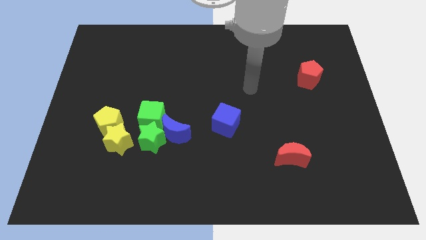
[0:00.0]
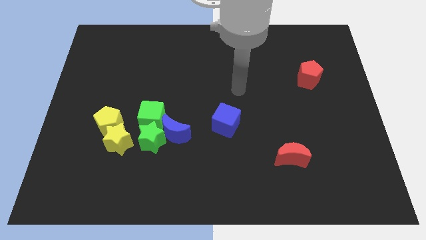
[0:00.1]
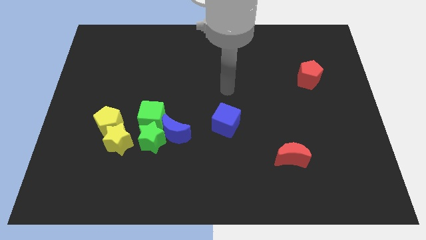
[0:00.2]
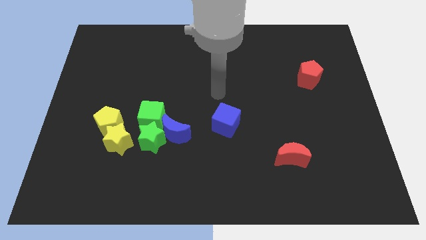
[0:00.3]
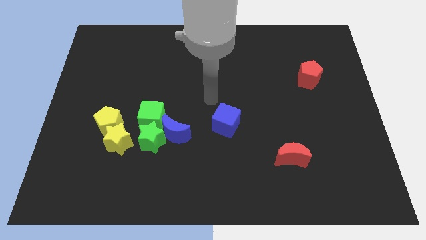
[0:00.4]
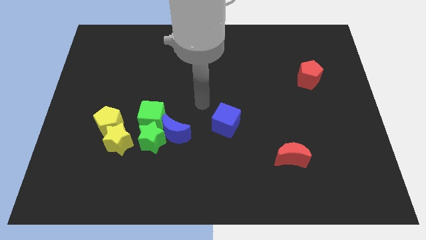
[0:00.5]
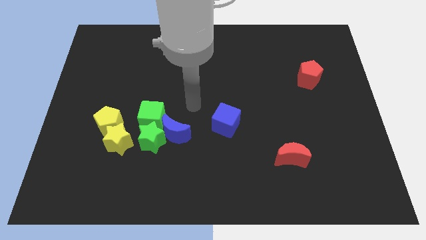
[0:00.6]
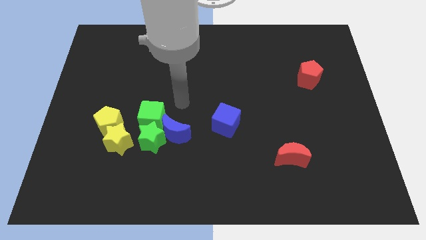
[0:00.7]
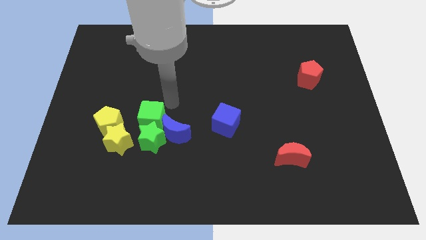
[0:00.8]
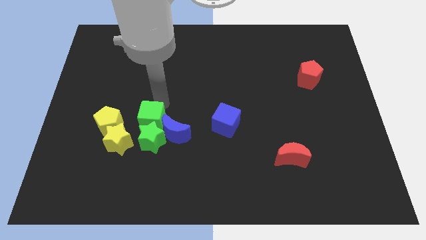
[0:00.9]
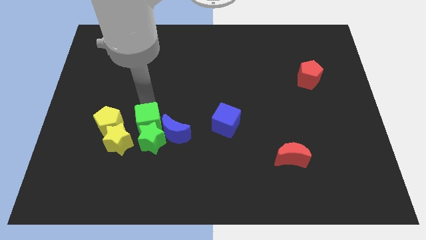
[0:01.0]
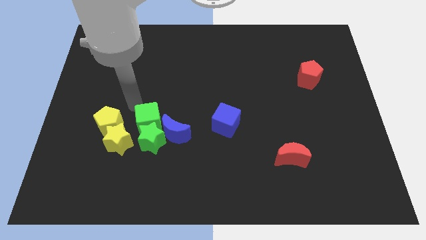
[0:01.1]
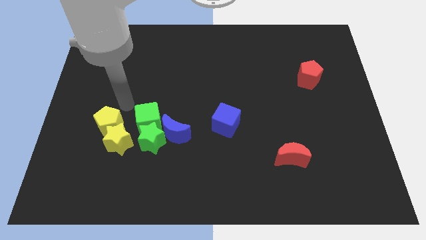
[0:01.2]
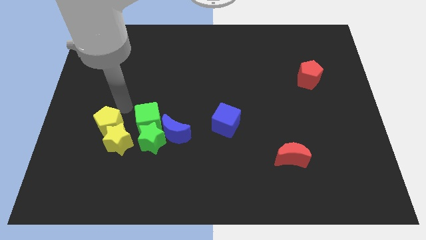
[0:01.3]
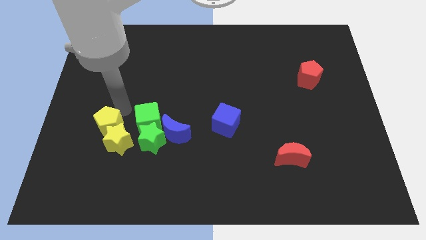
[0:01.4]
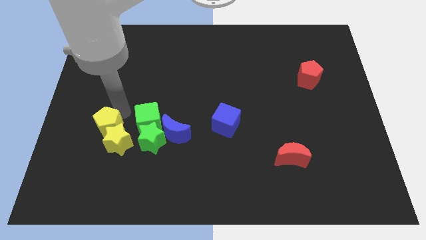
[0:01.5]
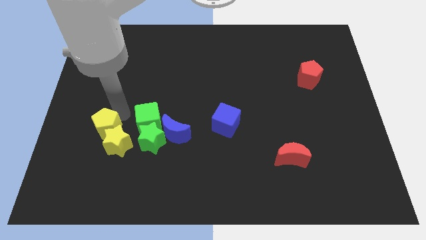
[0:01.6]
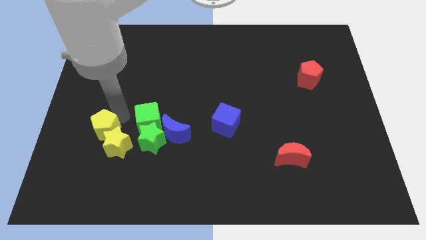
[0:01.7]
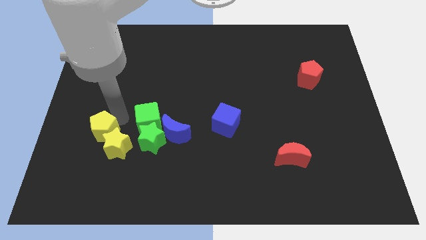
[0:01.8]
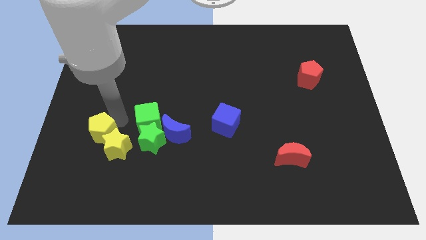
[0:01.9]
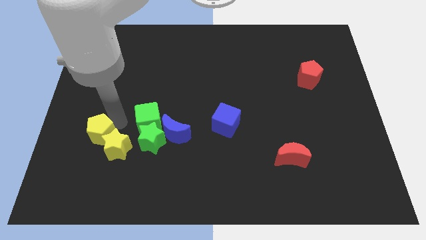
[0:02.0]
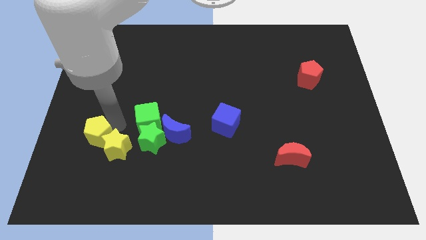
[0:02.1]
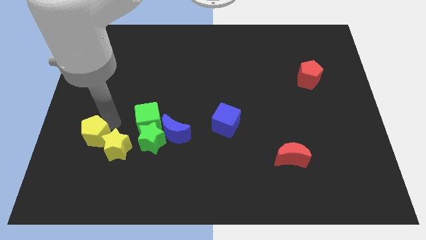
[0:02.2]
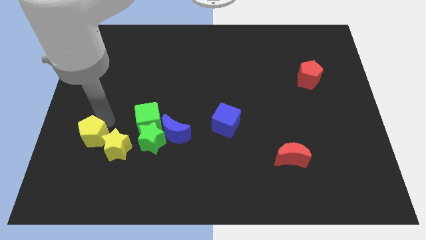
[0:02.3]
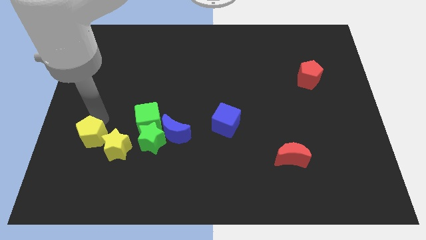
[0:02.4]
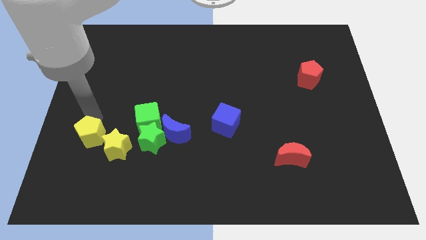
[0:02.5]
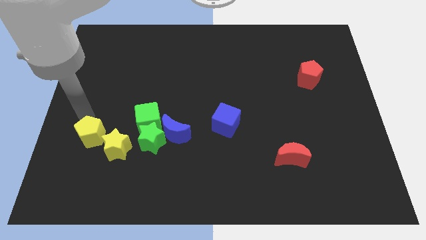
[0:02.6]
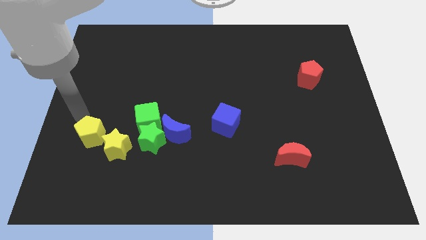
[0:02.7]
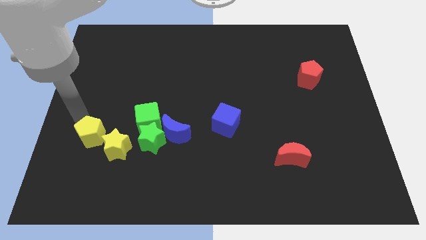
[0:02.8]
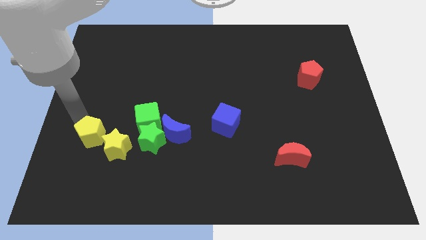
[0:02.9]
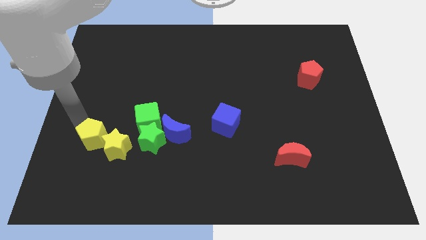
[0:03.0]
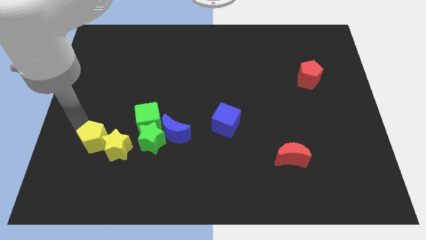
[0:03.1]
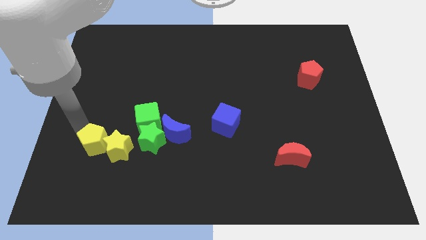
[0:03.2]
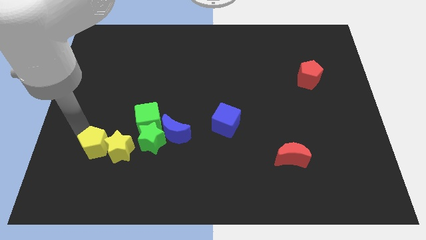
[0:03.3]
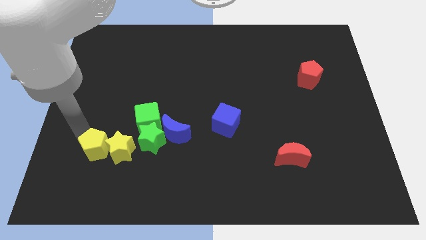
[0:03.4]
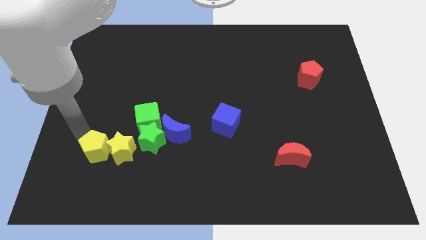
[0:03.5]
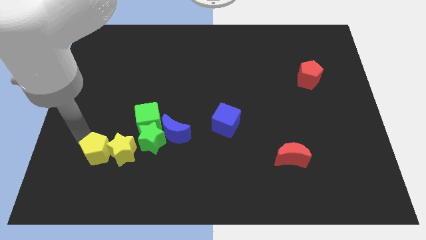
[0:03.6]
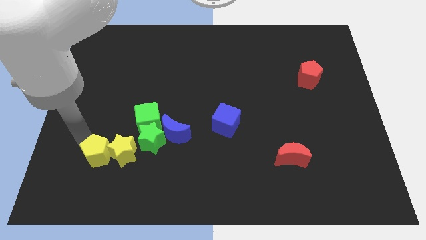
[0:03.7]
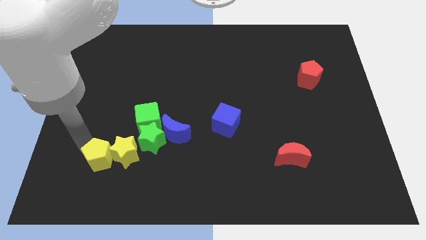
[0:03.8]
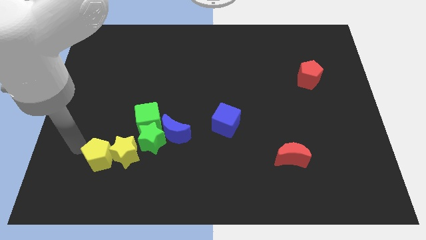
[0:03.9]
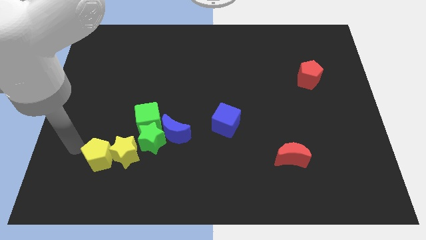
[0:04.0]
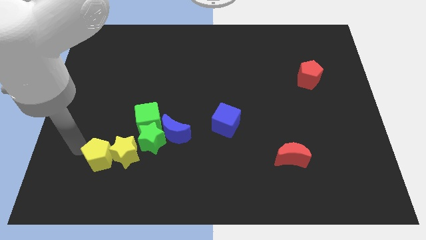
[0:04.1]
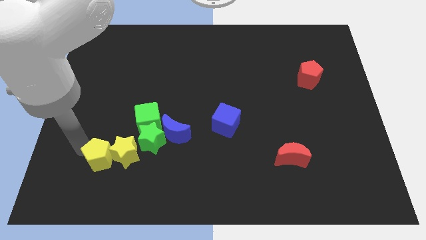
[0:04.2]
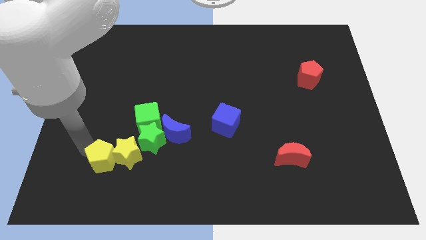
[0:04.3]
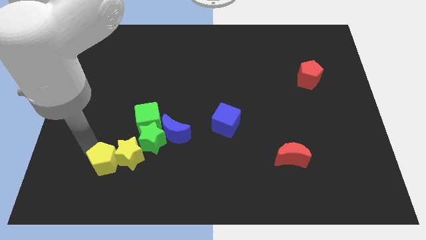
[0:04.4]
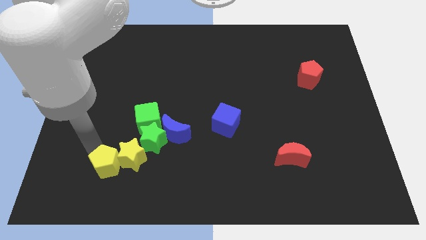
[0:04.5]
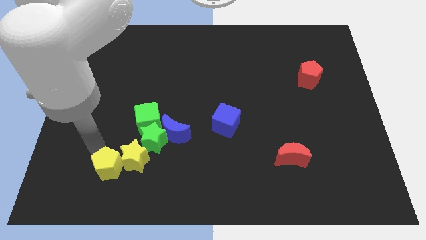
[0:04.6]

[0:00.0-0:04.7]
move the yellow pentagon a little bit down and right

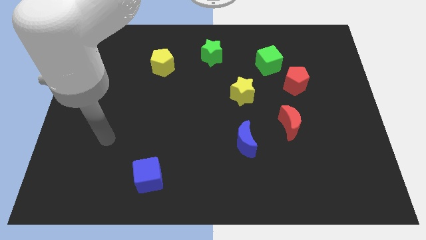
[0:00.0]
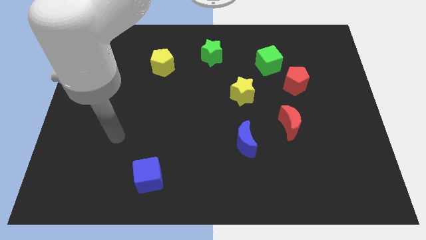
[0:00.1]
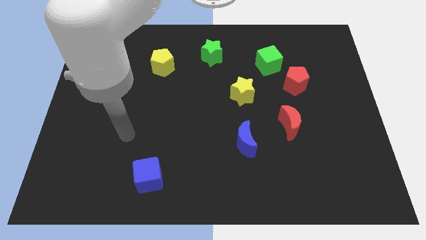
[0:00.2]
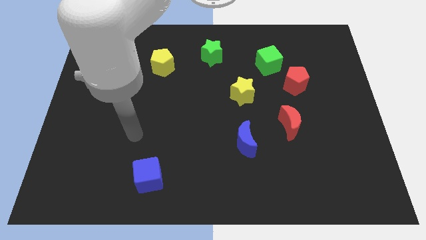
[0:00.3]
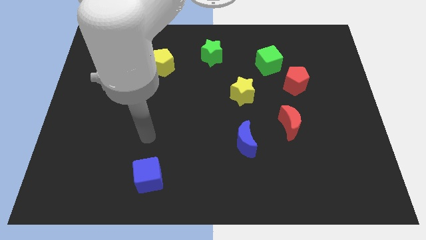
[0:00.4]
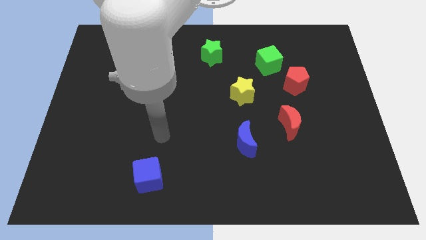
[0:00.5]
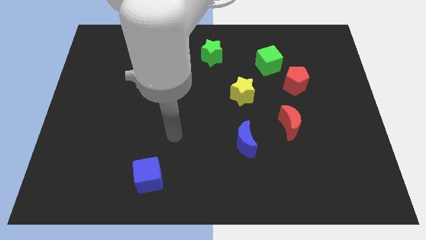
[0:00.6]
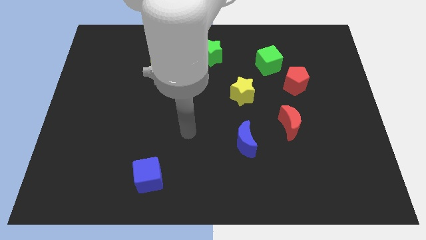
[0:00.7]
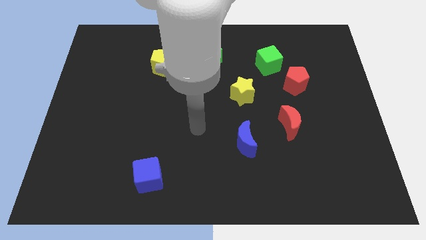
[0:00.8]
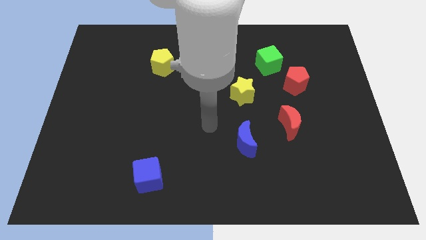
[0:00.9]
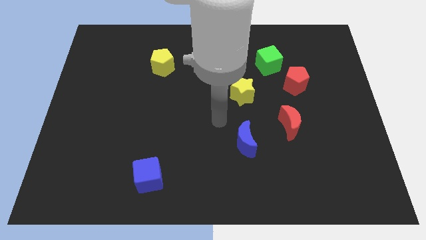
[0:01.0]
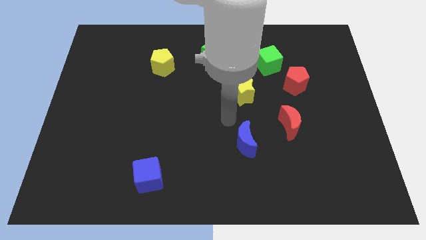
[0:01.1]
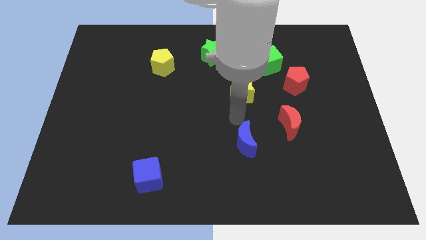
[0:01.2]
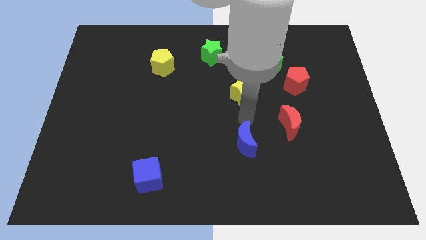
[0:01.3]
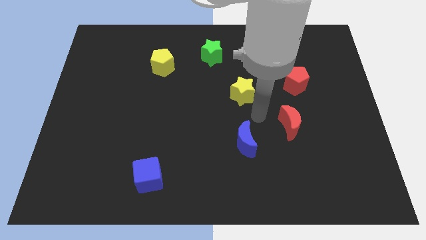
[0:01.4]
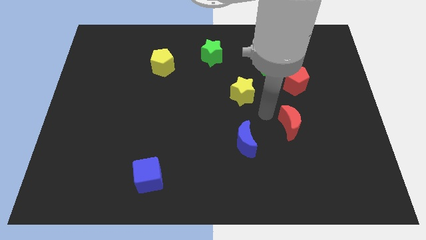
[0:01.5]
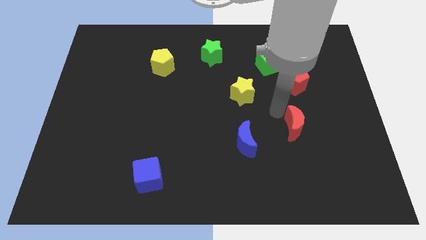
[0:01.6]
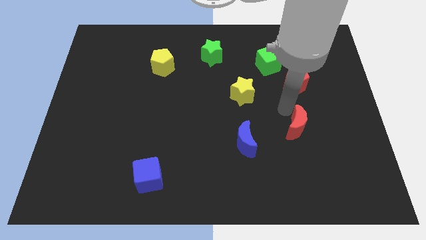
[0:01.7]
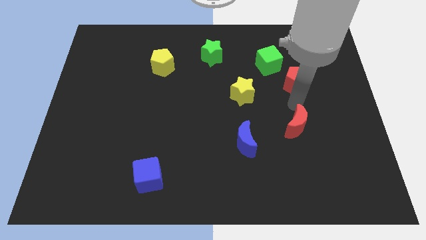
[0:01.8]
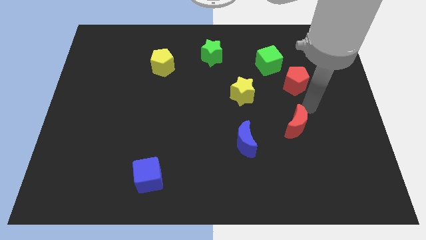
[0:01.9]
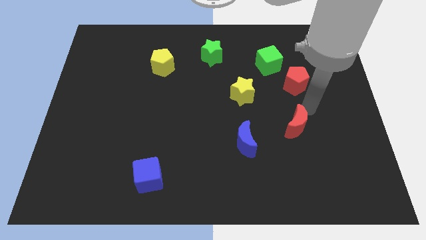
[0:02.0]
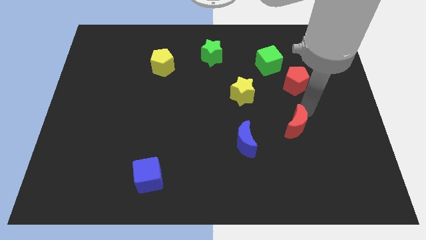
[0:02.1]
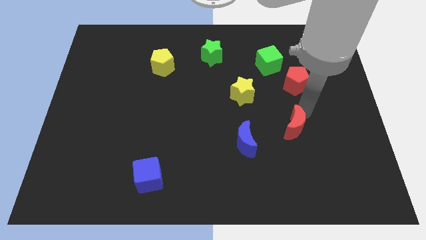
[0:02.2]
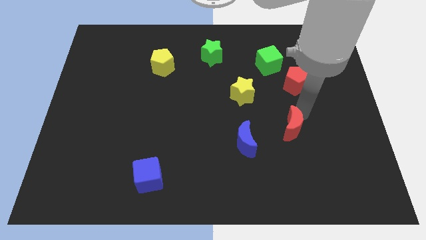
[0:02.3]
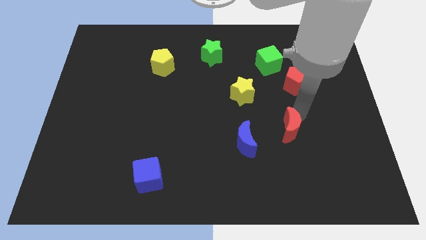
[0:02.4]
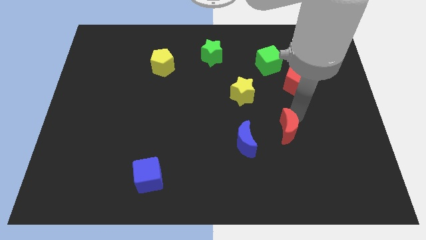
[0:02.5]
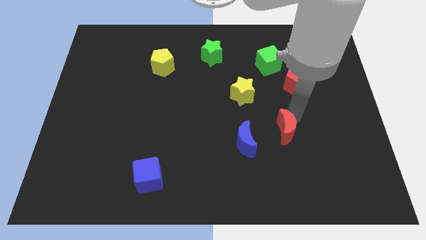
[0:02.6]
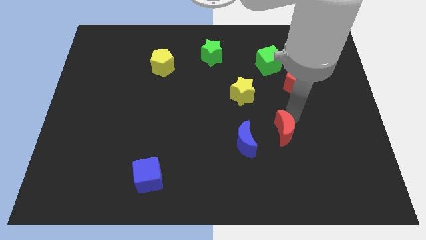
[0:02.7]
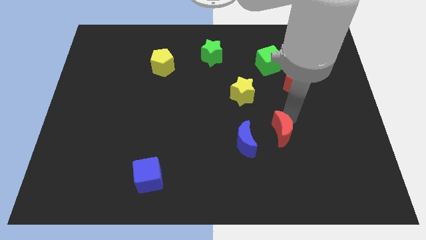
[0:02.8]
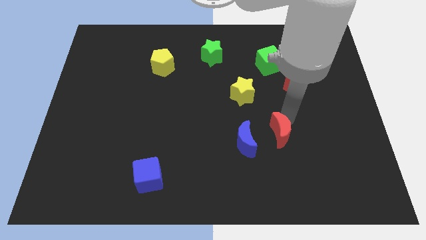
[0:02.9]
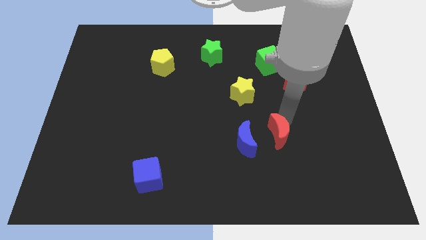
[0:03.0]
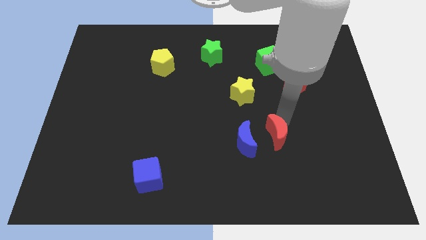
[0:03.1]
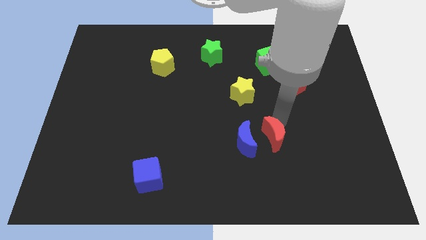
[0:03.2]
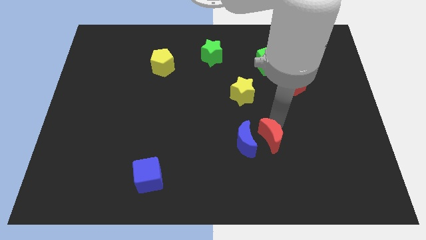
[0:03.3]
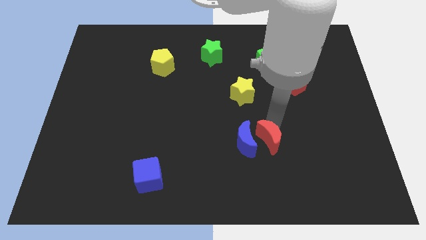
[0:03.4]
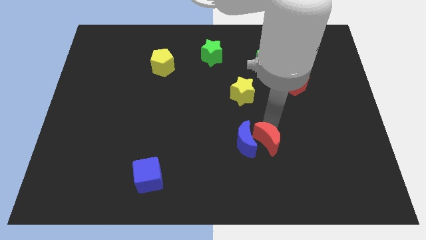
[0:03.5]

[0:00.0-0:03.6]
slightly push the red moon diagonally down and left
